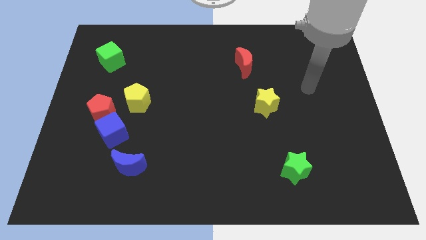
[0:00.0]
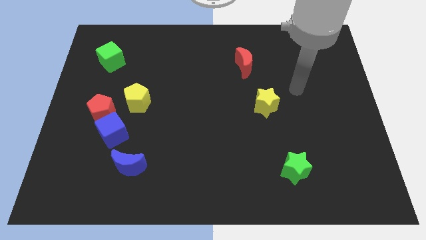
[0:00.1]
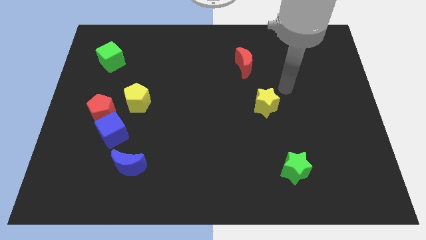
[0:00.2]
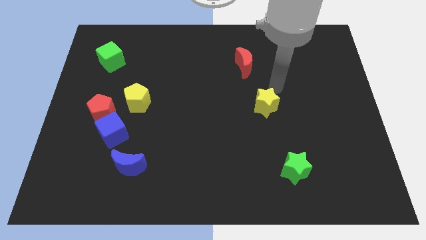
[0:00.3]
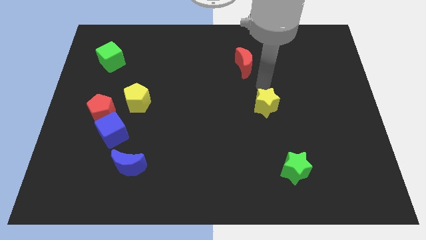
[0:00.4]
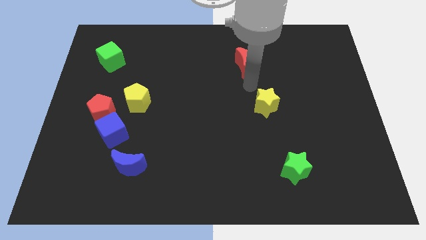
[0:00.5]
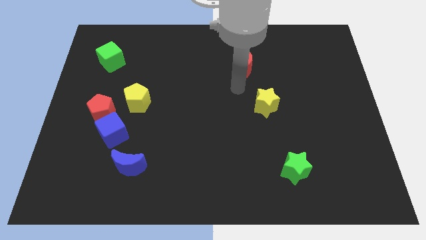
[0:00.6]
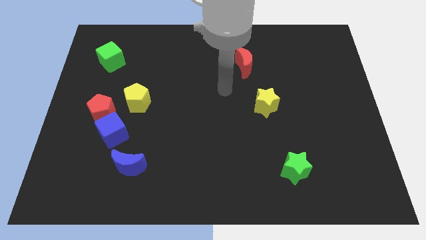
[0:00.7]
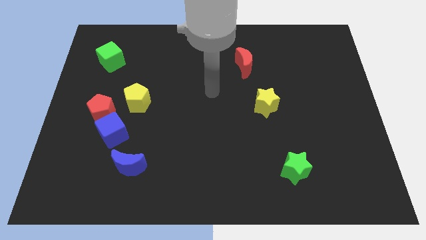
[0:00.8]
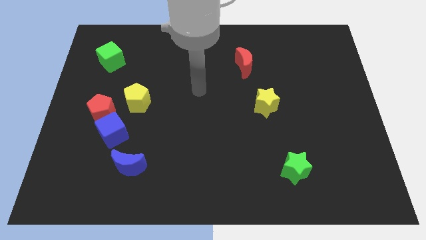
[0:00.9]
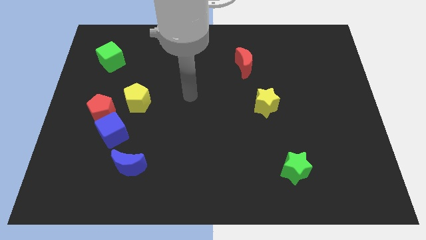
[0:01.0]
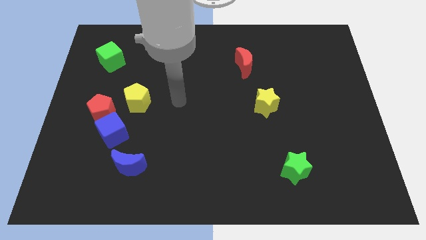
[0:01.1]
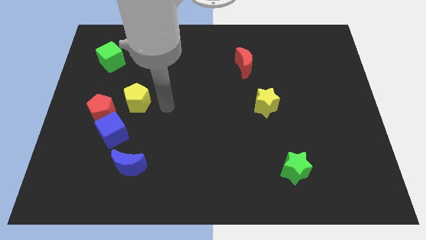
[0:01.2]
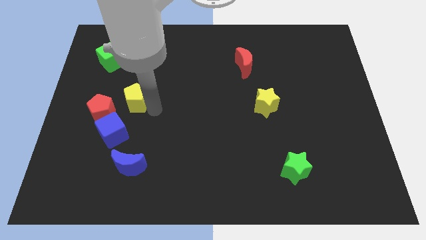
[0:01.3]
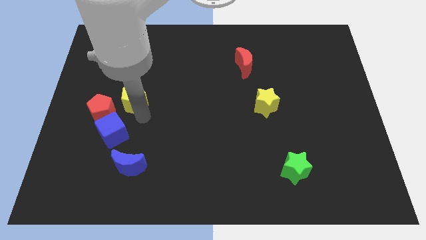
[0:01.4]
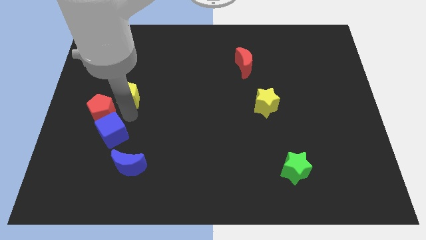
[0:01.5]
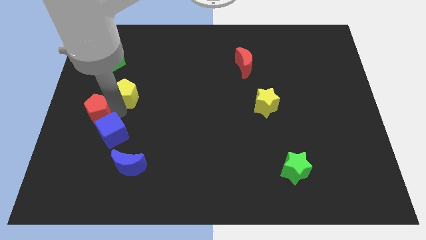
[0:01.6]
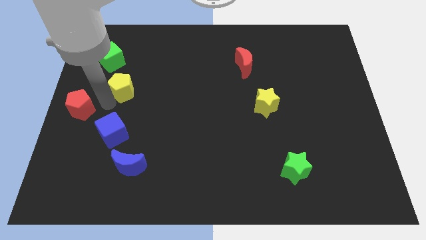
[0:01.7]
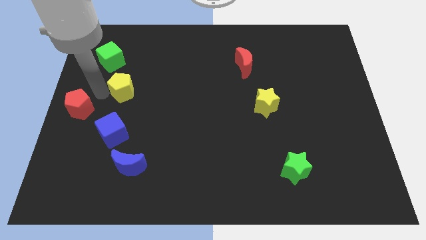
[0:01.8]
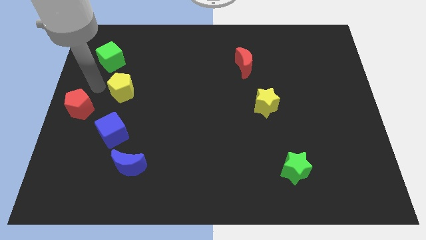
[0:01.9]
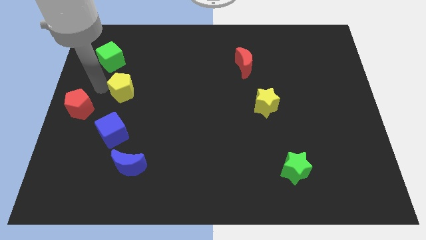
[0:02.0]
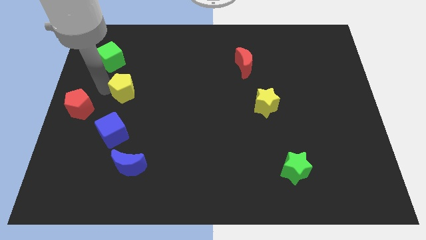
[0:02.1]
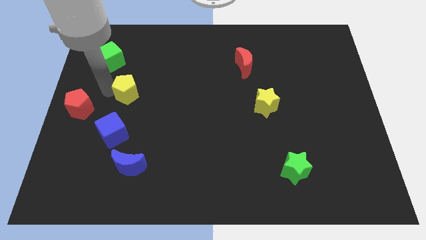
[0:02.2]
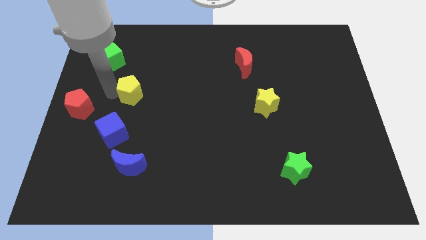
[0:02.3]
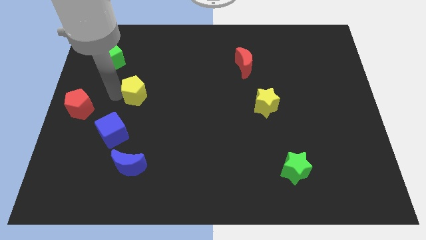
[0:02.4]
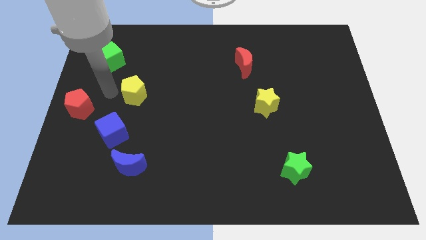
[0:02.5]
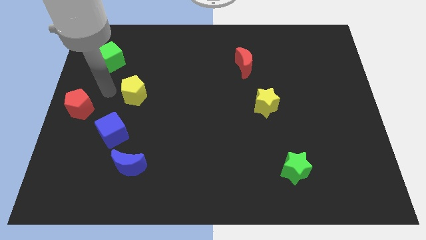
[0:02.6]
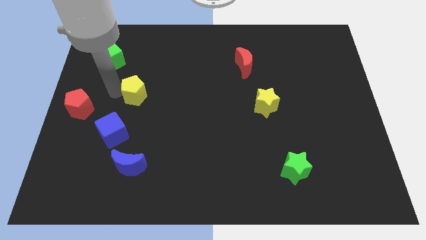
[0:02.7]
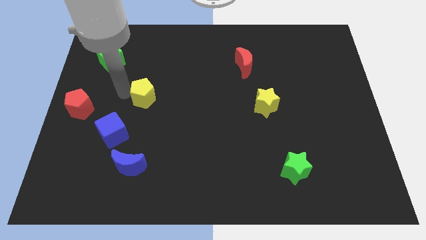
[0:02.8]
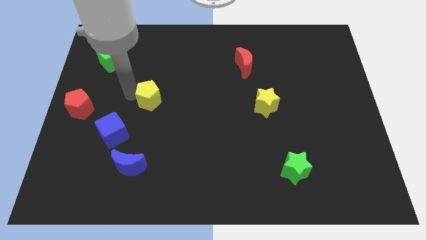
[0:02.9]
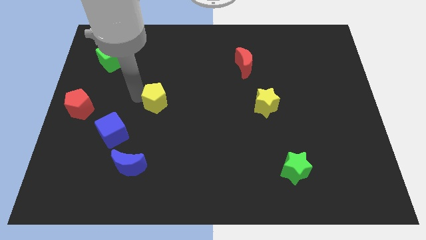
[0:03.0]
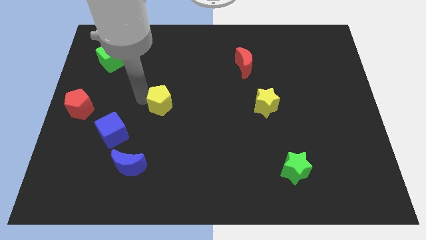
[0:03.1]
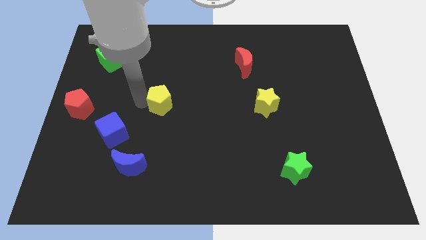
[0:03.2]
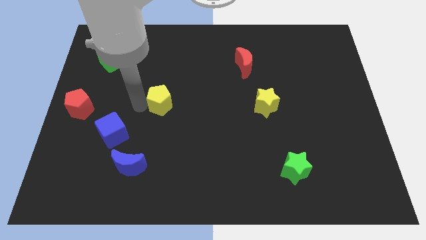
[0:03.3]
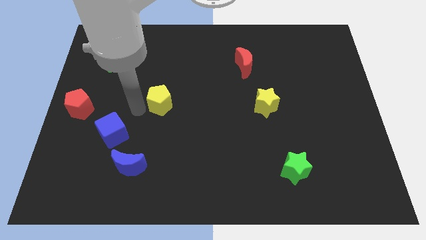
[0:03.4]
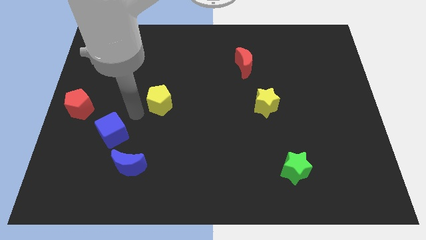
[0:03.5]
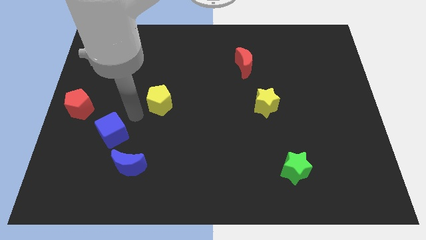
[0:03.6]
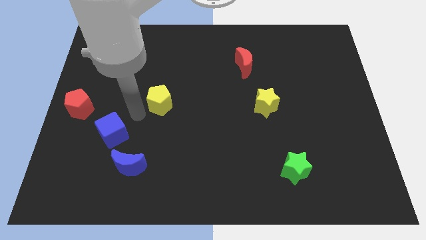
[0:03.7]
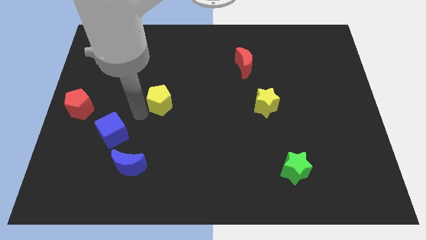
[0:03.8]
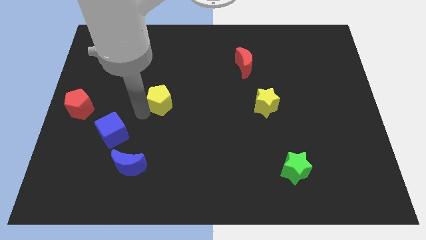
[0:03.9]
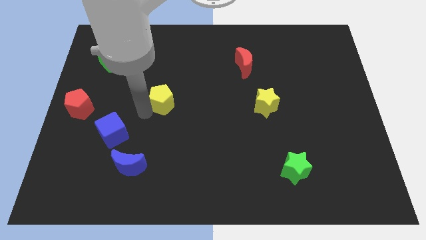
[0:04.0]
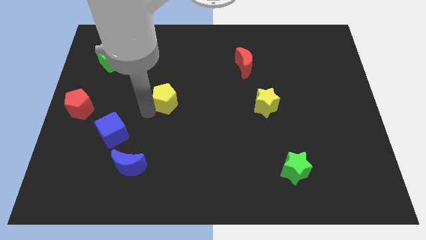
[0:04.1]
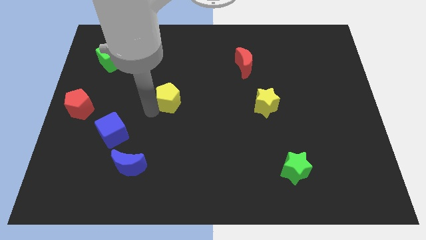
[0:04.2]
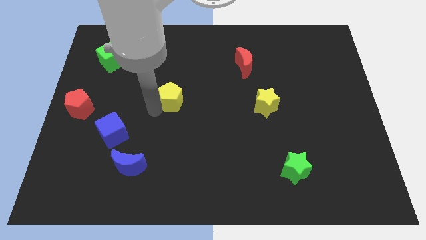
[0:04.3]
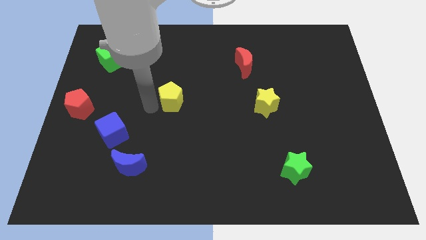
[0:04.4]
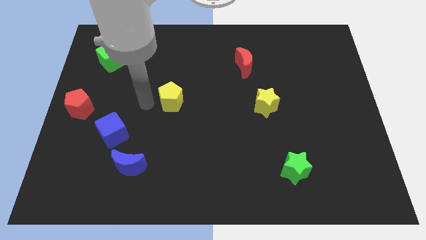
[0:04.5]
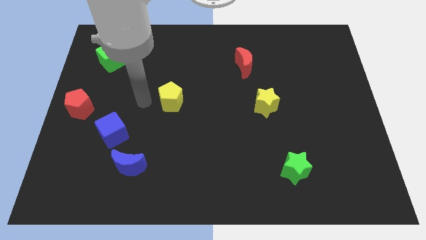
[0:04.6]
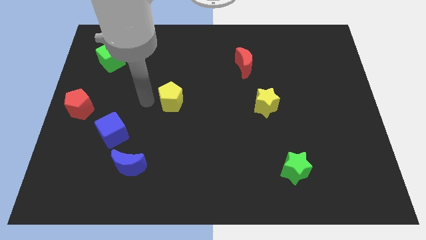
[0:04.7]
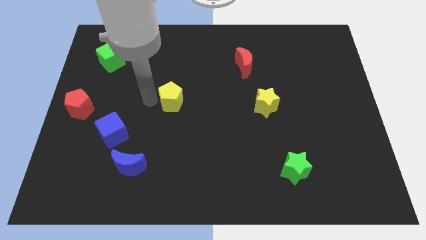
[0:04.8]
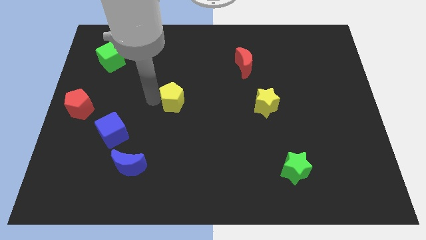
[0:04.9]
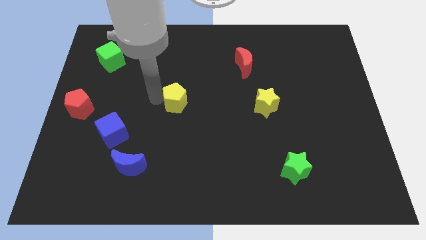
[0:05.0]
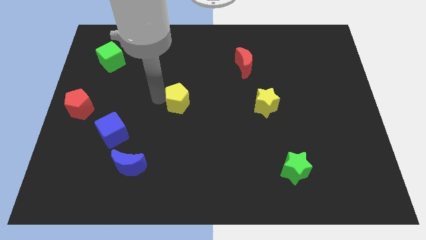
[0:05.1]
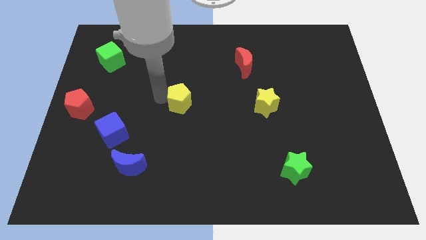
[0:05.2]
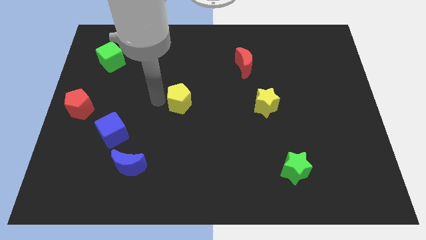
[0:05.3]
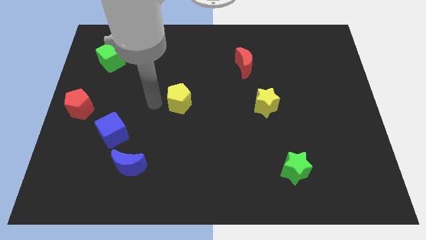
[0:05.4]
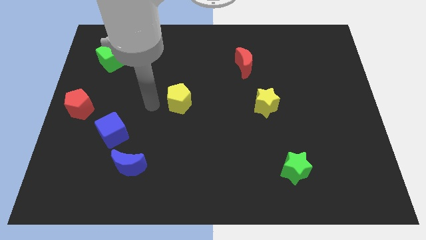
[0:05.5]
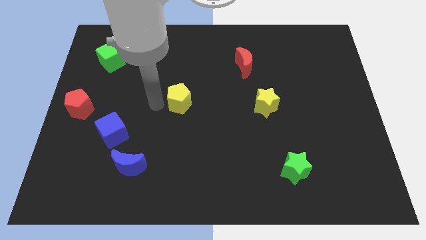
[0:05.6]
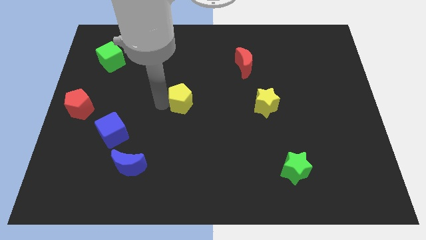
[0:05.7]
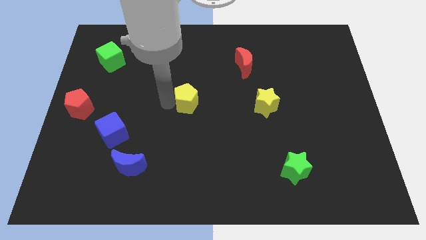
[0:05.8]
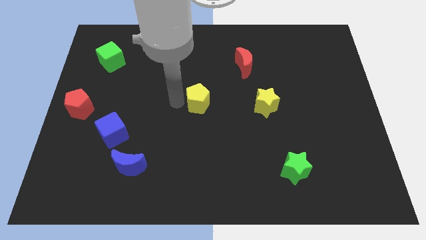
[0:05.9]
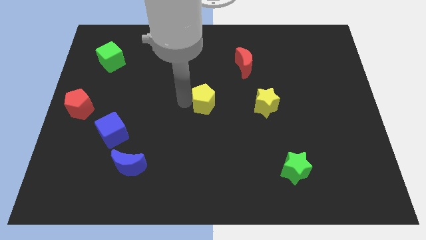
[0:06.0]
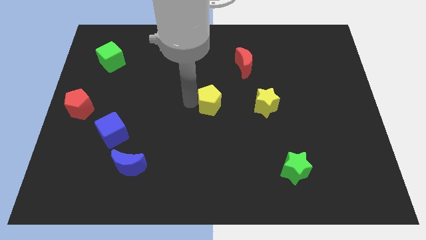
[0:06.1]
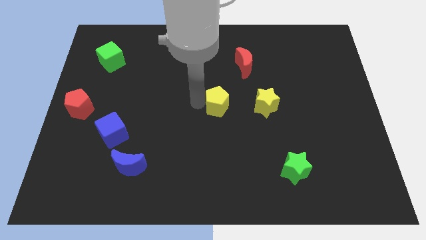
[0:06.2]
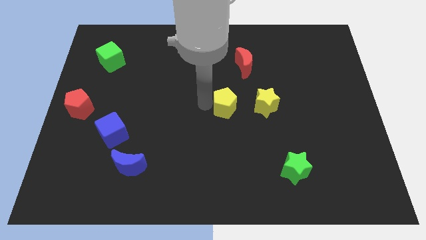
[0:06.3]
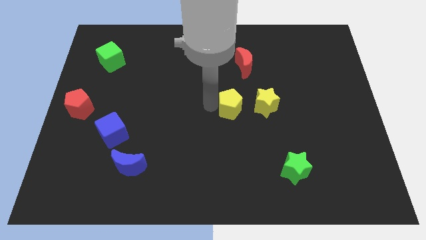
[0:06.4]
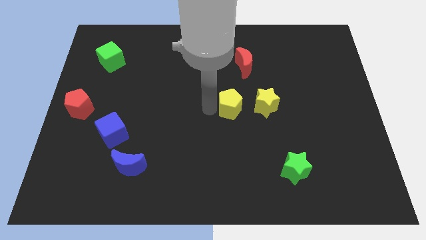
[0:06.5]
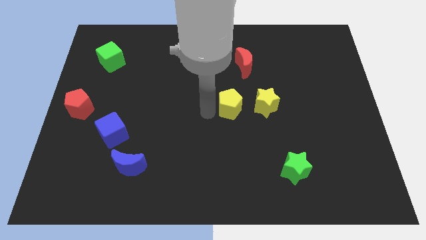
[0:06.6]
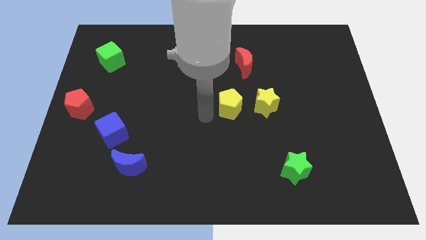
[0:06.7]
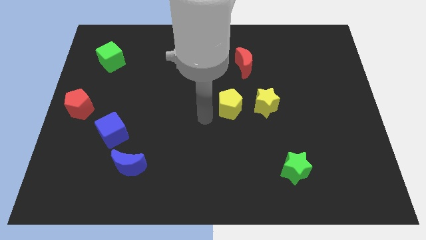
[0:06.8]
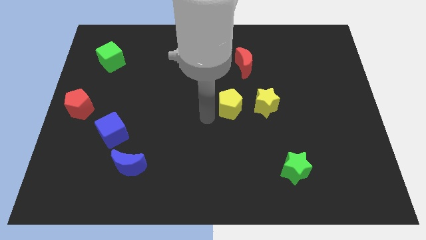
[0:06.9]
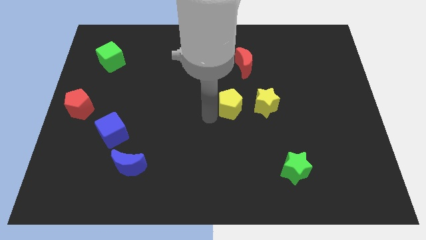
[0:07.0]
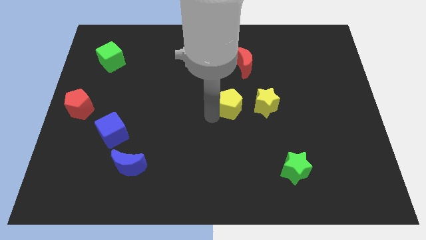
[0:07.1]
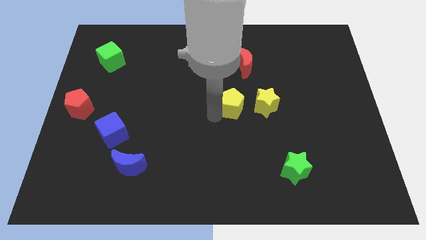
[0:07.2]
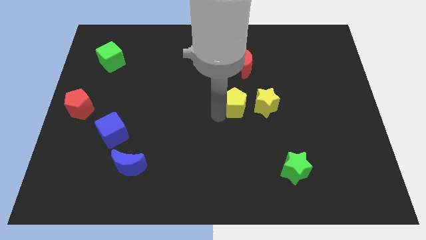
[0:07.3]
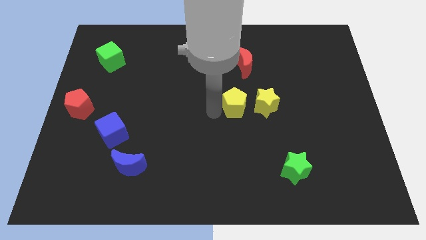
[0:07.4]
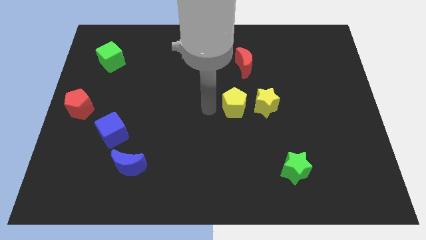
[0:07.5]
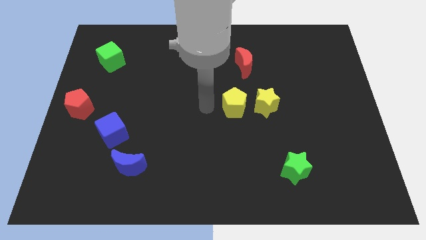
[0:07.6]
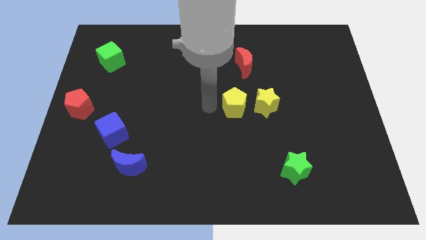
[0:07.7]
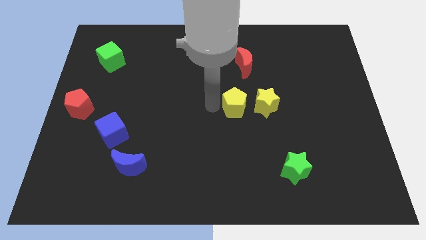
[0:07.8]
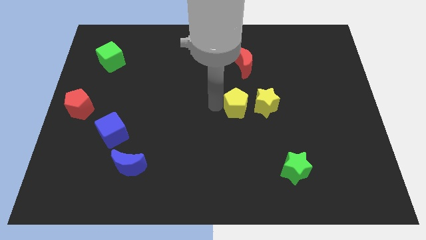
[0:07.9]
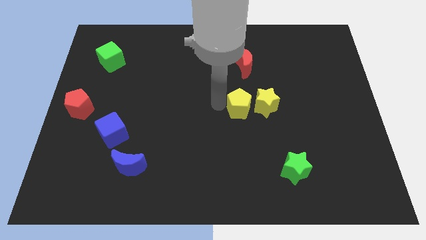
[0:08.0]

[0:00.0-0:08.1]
put the yellow pentagon towards the yellow star
